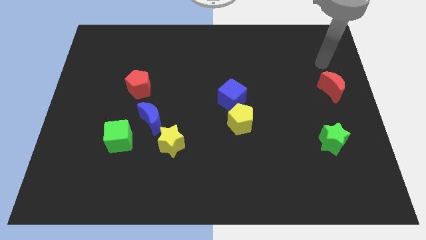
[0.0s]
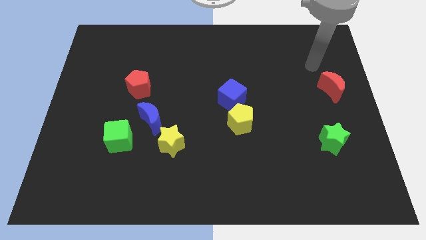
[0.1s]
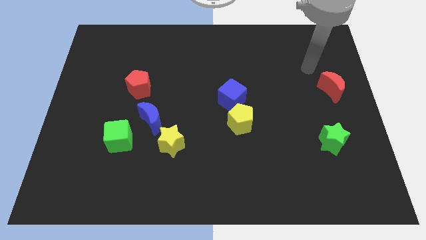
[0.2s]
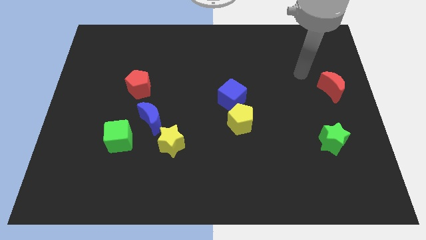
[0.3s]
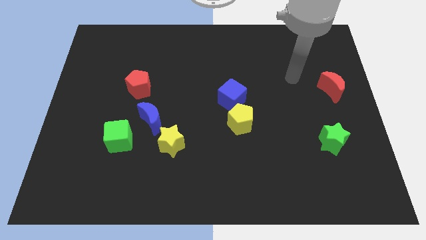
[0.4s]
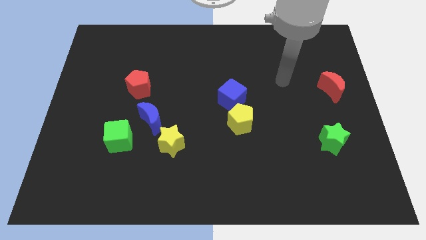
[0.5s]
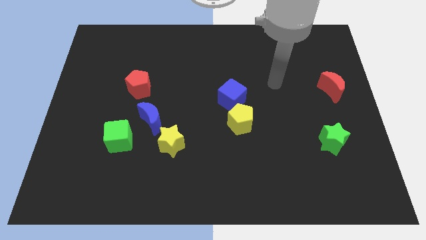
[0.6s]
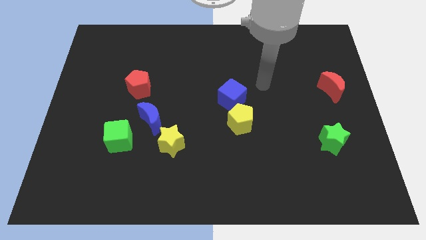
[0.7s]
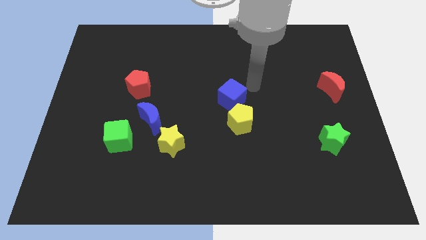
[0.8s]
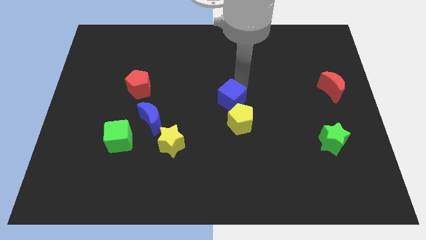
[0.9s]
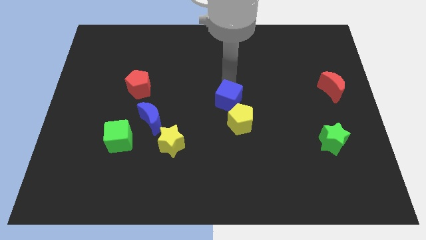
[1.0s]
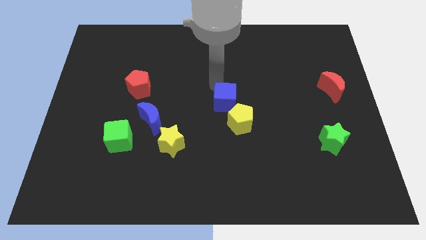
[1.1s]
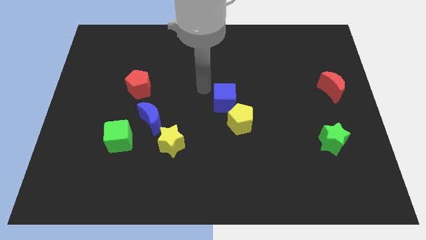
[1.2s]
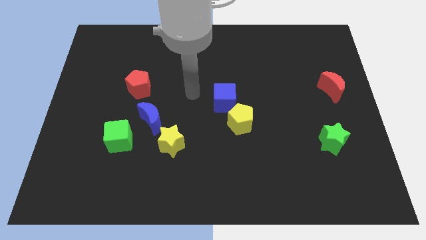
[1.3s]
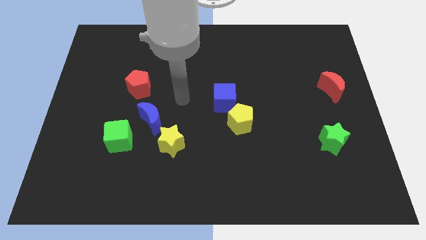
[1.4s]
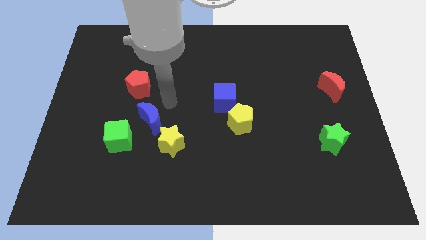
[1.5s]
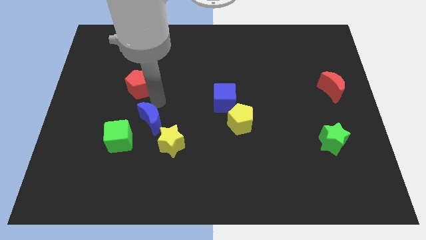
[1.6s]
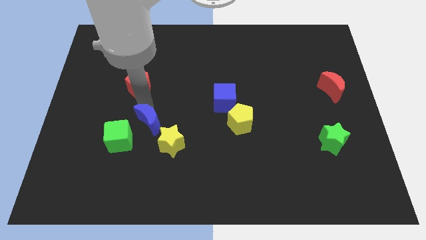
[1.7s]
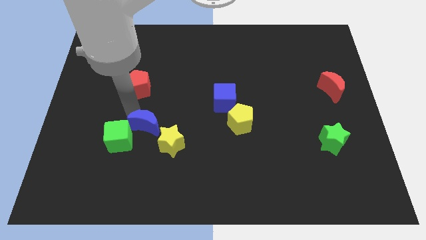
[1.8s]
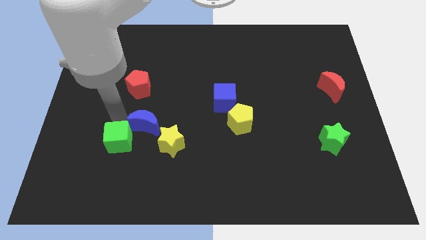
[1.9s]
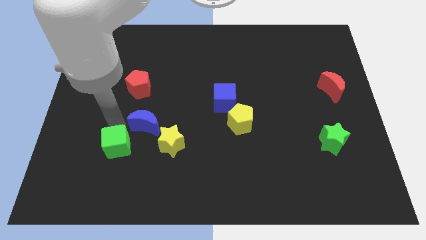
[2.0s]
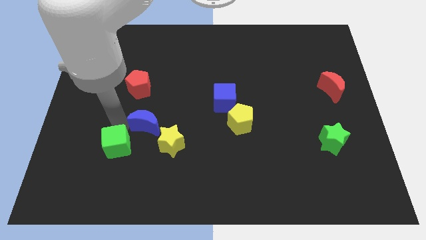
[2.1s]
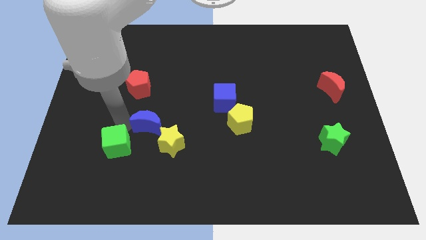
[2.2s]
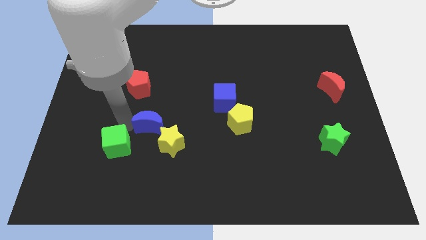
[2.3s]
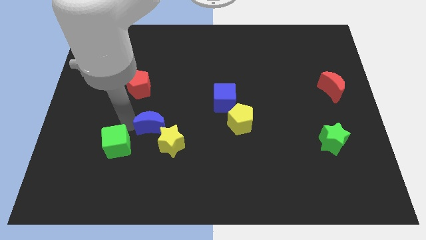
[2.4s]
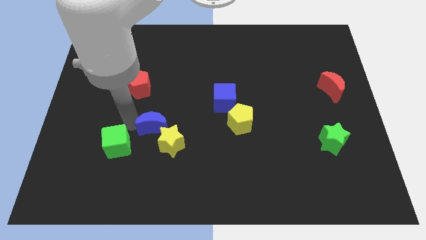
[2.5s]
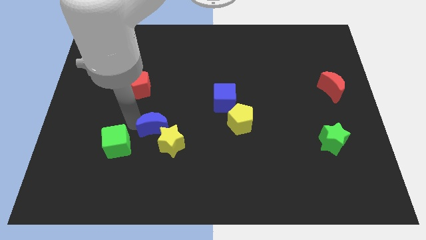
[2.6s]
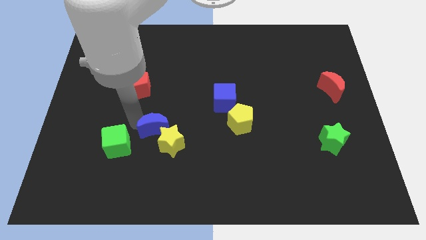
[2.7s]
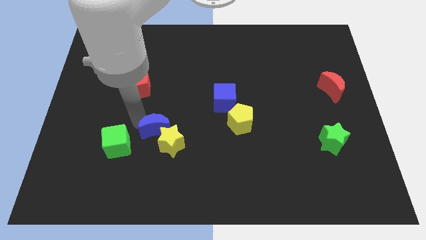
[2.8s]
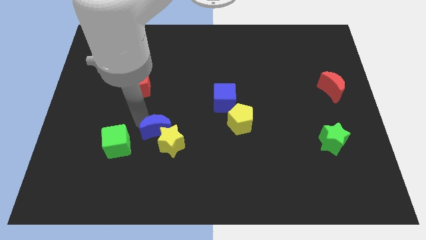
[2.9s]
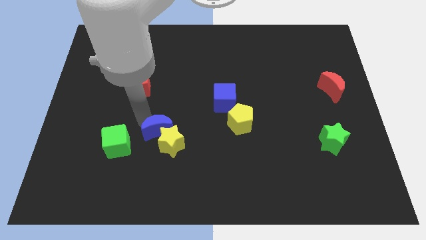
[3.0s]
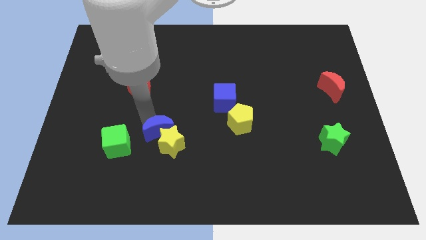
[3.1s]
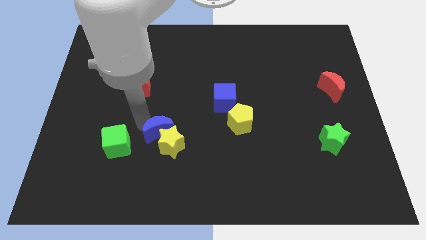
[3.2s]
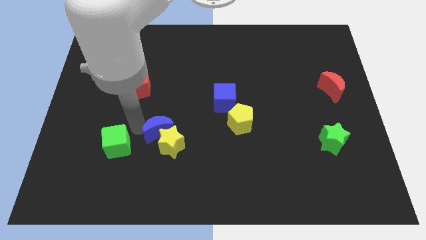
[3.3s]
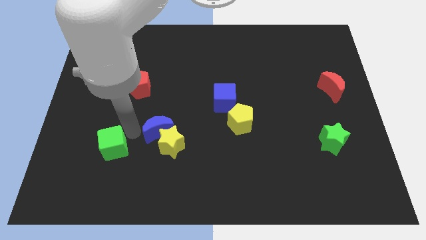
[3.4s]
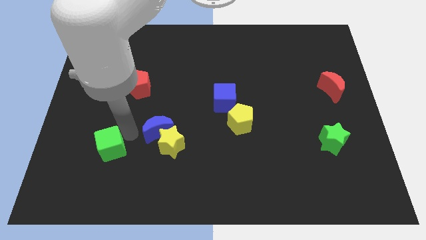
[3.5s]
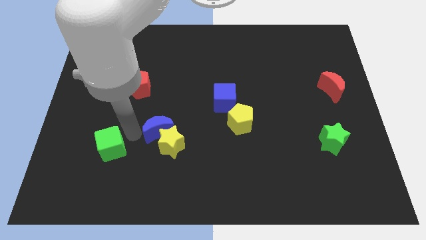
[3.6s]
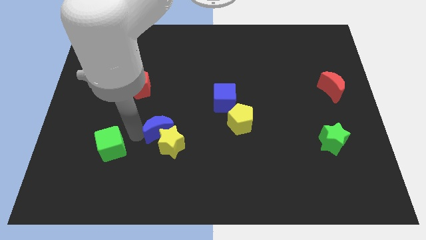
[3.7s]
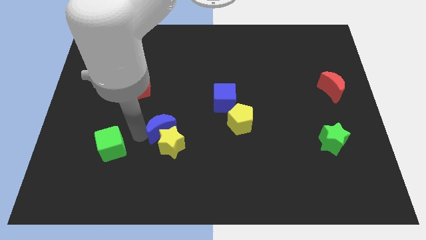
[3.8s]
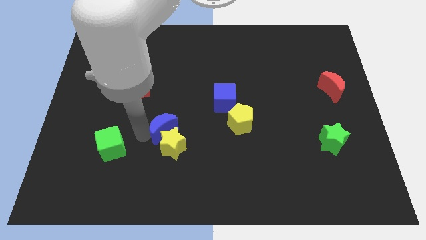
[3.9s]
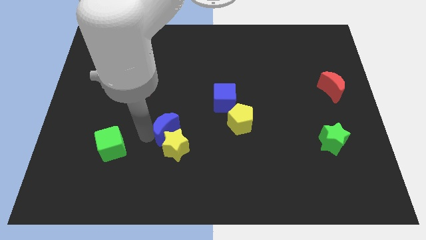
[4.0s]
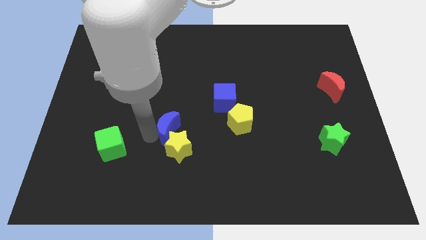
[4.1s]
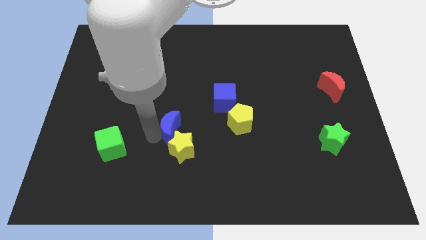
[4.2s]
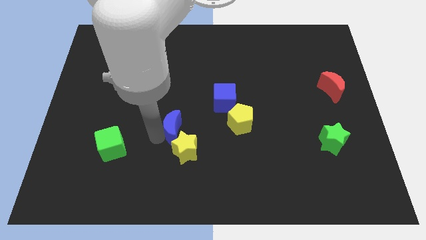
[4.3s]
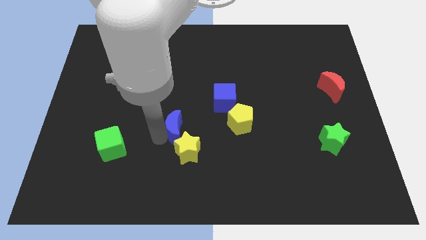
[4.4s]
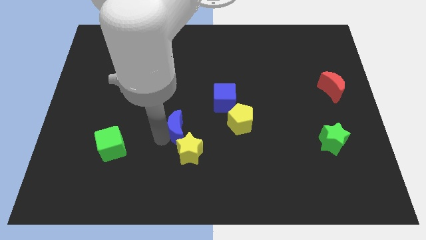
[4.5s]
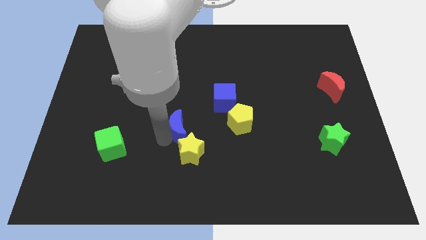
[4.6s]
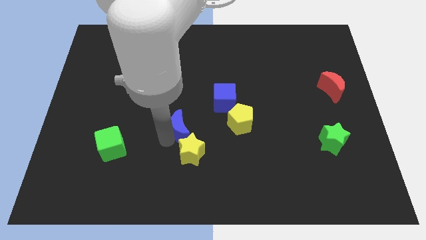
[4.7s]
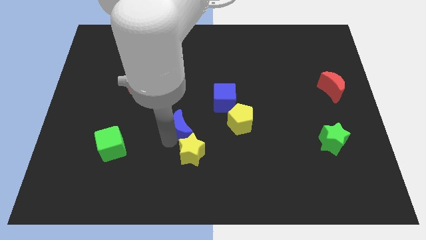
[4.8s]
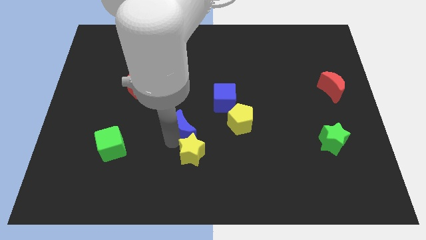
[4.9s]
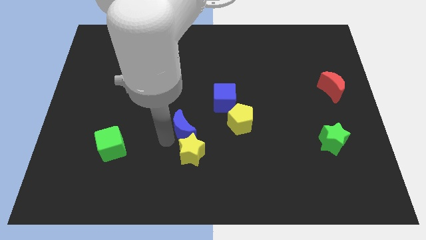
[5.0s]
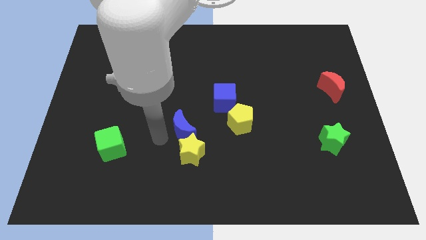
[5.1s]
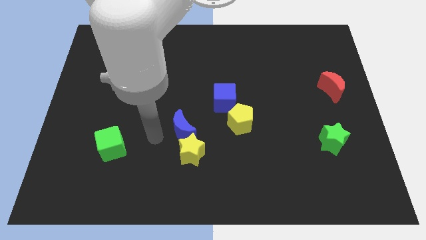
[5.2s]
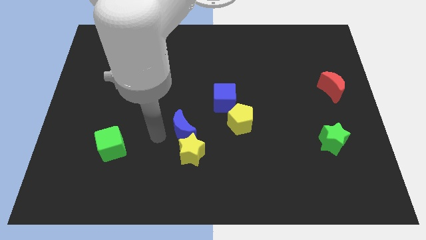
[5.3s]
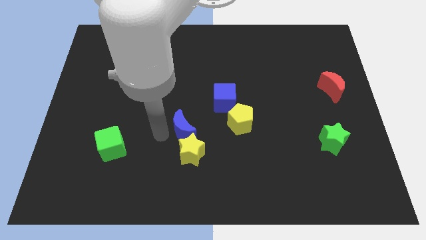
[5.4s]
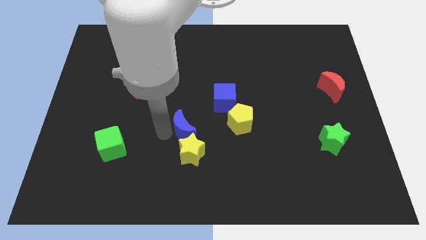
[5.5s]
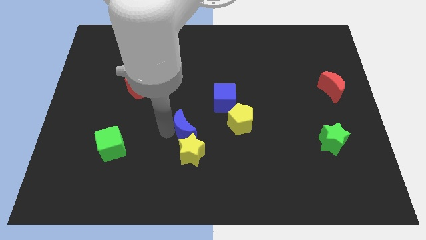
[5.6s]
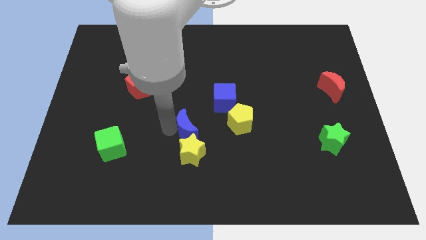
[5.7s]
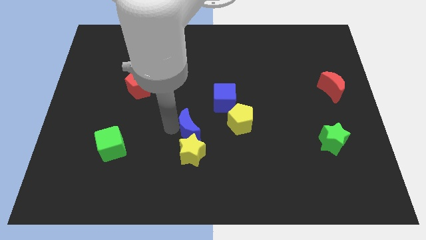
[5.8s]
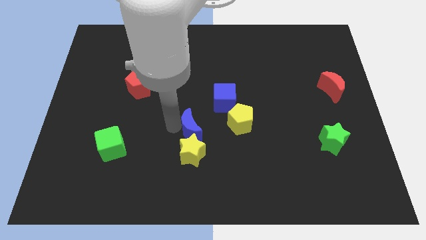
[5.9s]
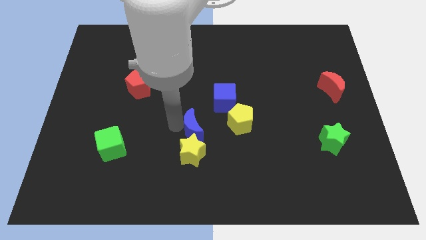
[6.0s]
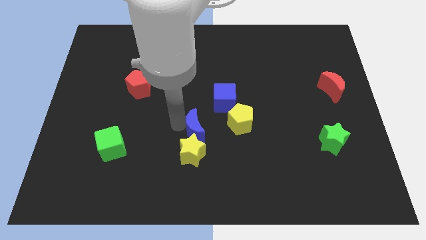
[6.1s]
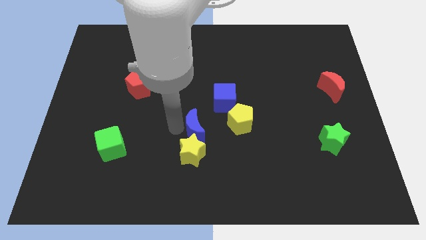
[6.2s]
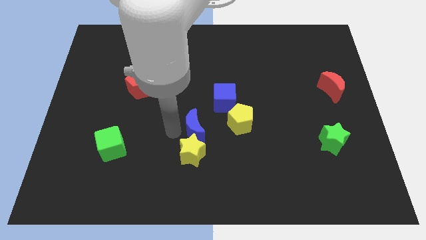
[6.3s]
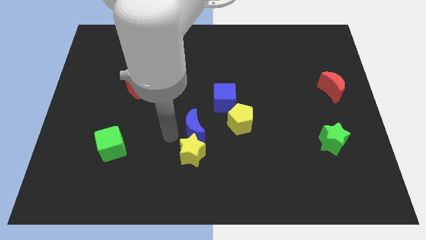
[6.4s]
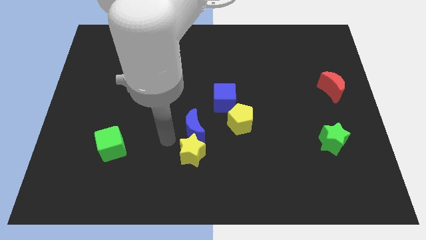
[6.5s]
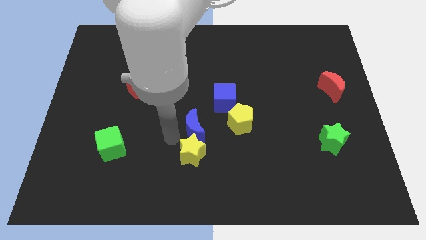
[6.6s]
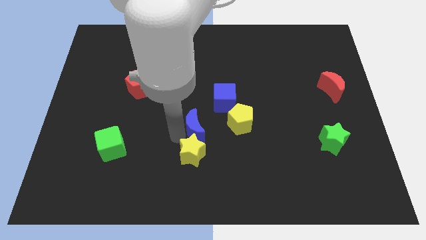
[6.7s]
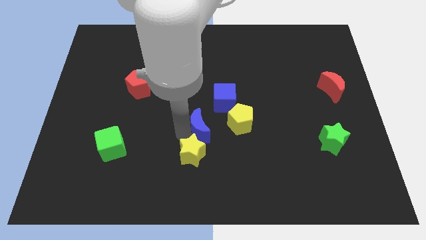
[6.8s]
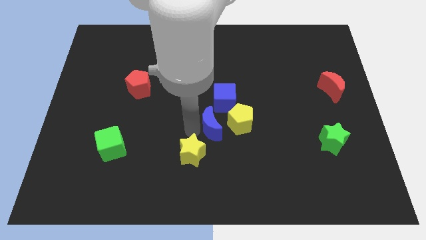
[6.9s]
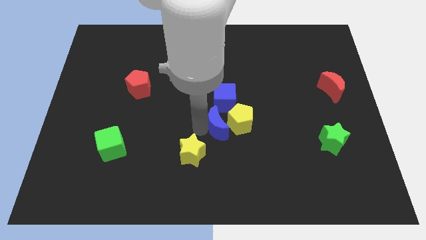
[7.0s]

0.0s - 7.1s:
push the blue moon next to the yellow pentagon
